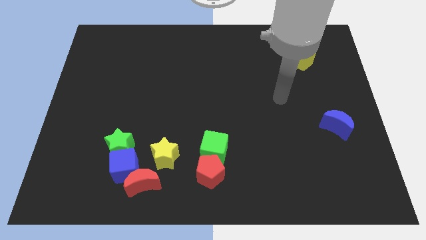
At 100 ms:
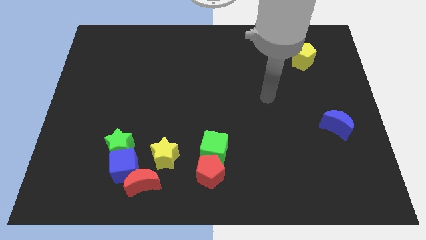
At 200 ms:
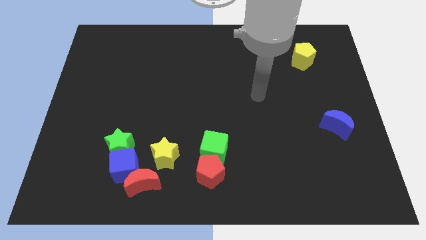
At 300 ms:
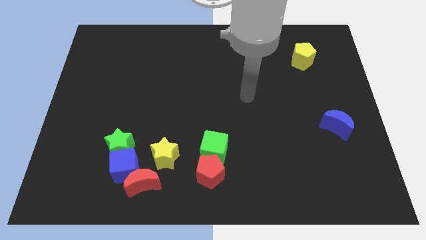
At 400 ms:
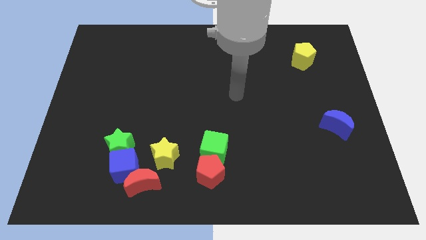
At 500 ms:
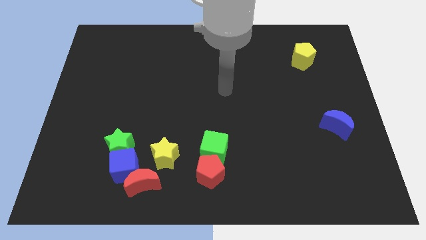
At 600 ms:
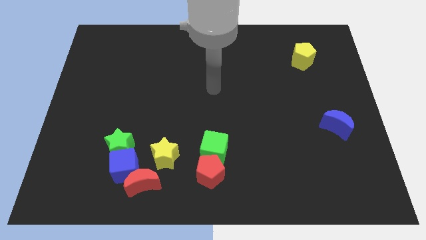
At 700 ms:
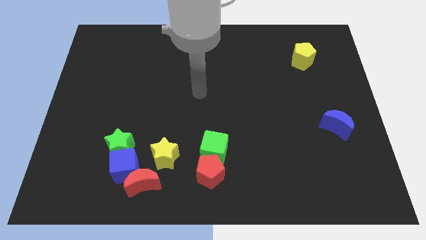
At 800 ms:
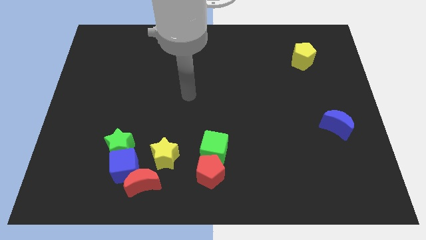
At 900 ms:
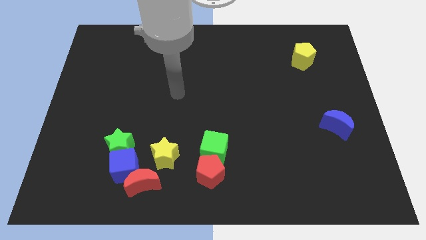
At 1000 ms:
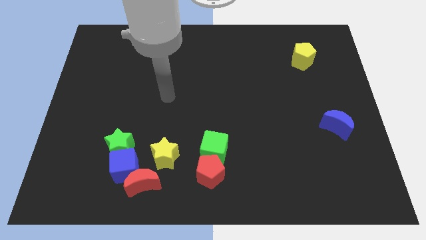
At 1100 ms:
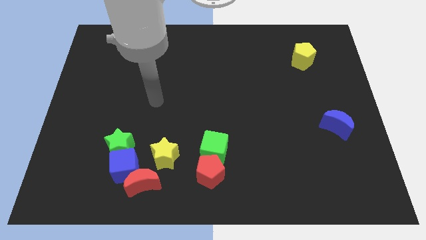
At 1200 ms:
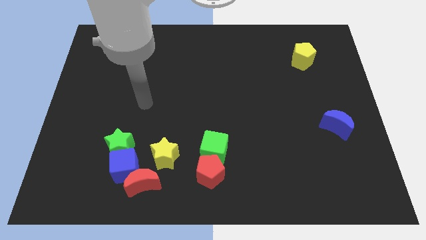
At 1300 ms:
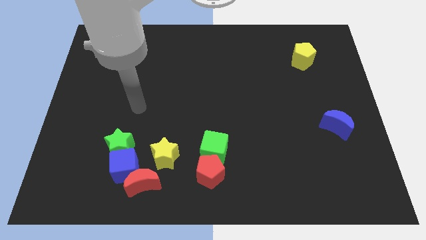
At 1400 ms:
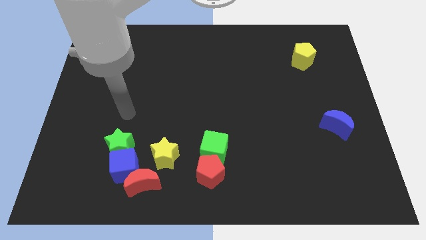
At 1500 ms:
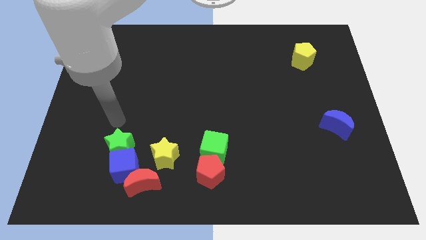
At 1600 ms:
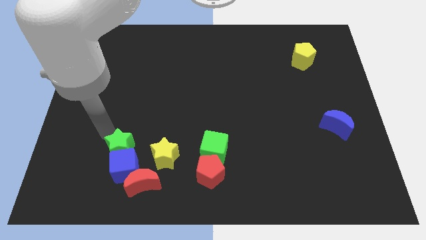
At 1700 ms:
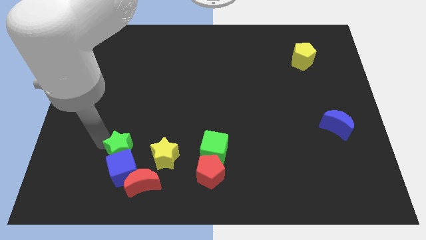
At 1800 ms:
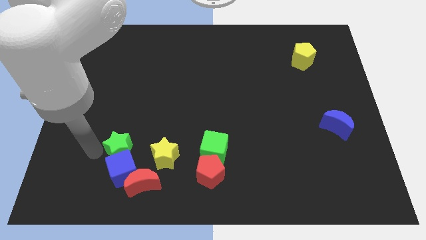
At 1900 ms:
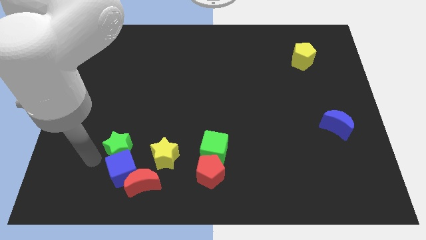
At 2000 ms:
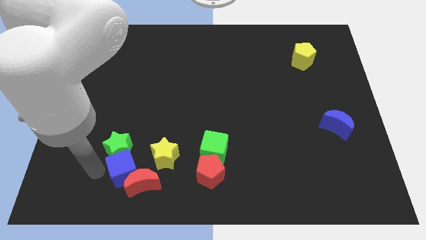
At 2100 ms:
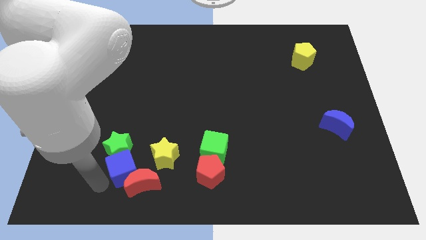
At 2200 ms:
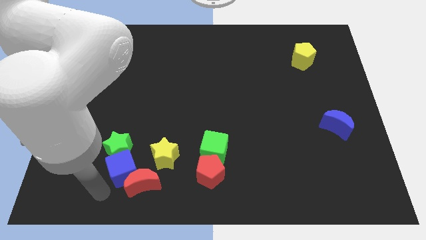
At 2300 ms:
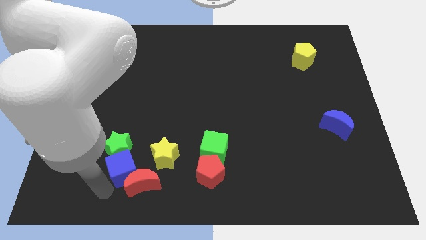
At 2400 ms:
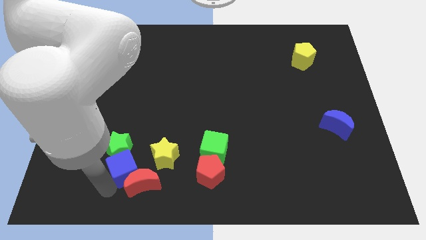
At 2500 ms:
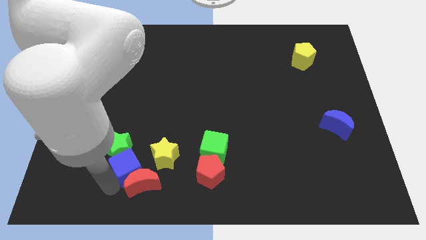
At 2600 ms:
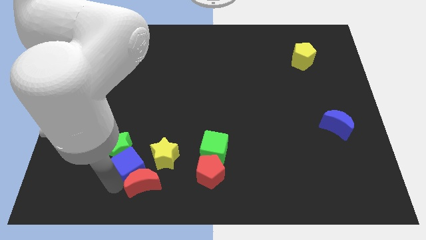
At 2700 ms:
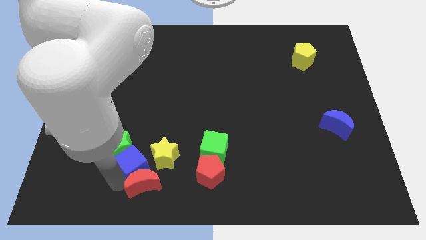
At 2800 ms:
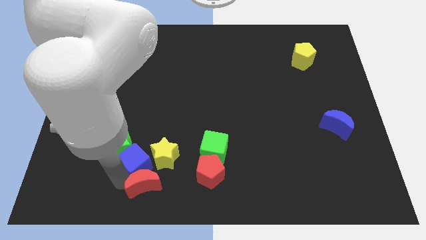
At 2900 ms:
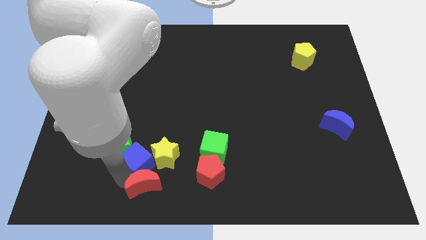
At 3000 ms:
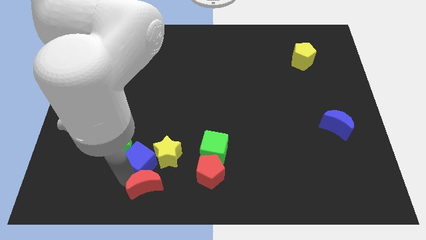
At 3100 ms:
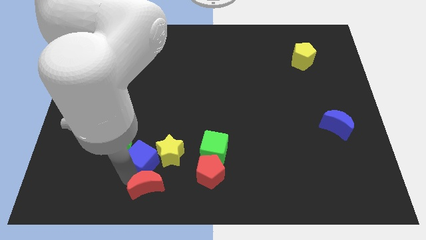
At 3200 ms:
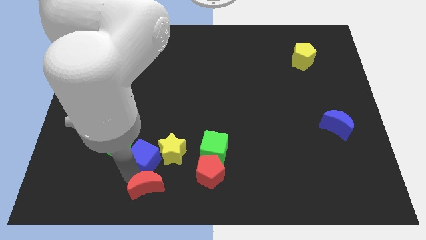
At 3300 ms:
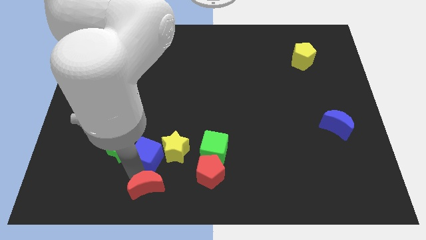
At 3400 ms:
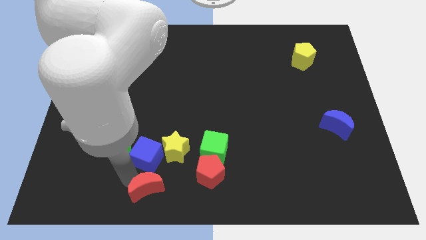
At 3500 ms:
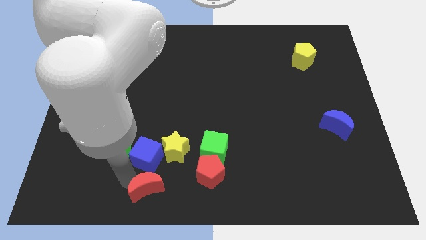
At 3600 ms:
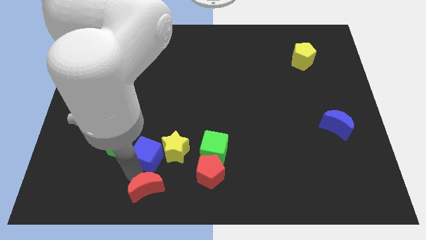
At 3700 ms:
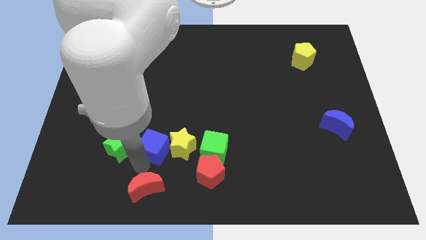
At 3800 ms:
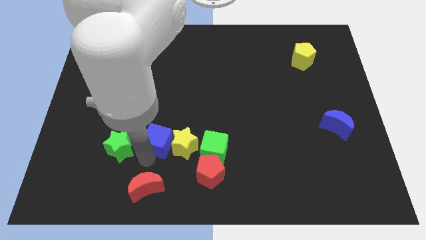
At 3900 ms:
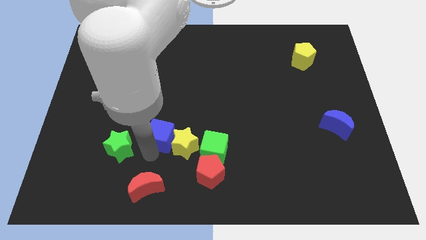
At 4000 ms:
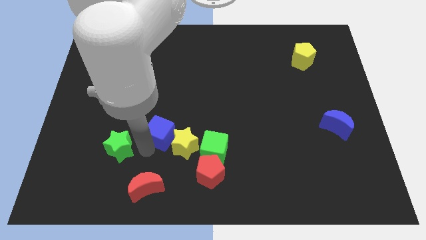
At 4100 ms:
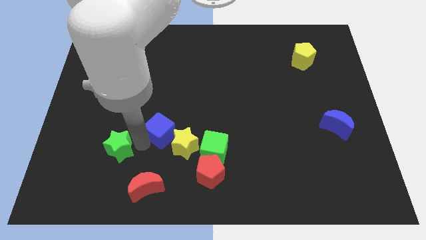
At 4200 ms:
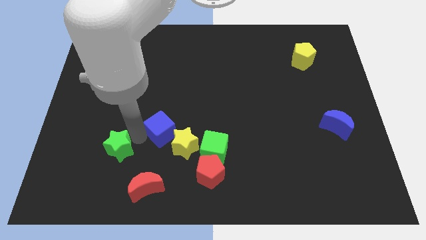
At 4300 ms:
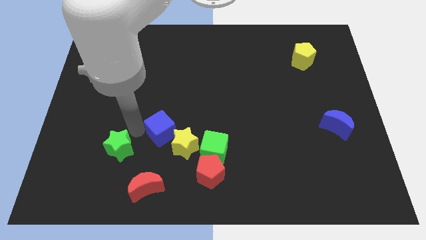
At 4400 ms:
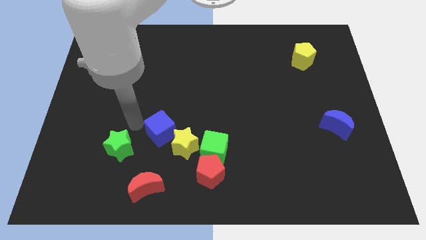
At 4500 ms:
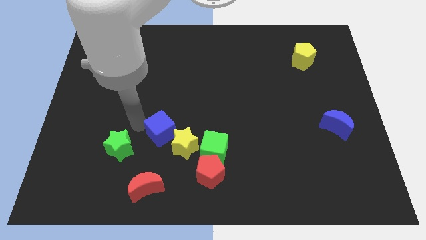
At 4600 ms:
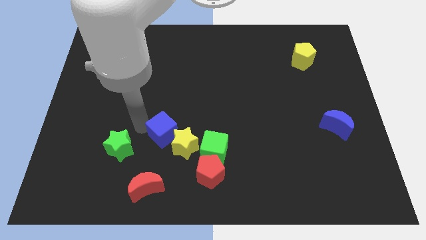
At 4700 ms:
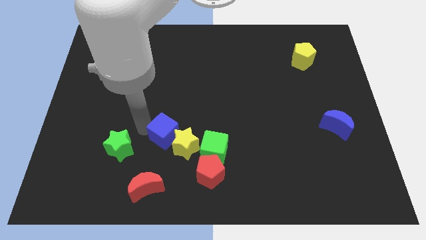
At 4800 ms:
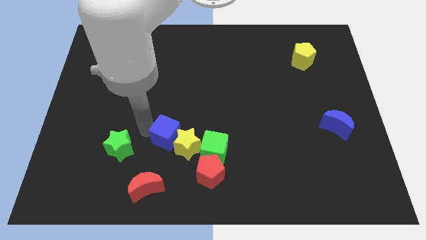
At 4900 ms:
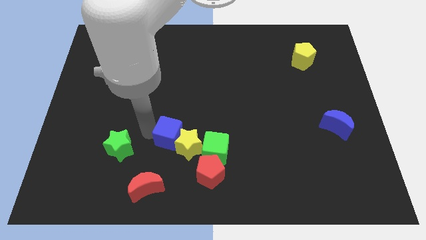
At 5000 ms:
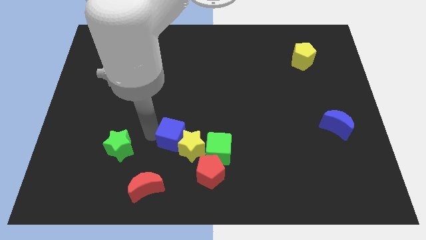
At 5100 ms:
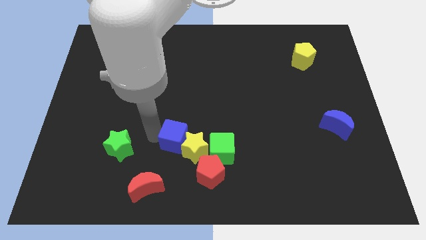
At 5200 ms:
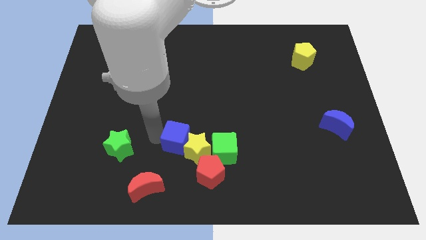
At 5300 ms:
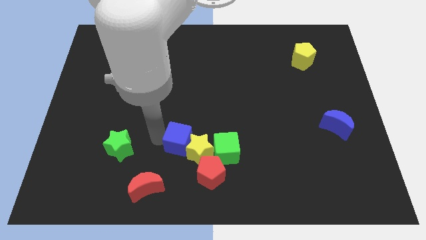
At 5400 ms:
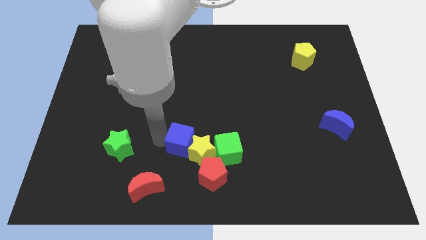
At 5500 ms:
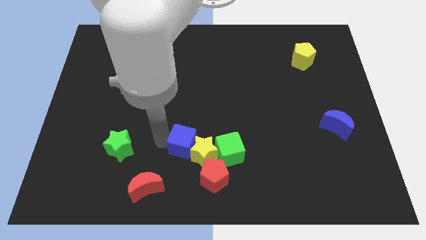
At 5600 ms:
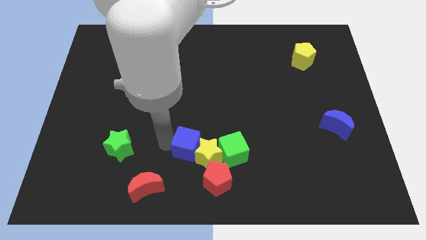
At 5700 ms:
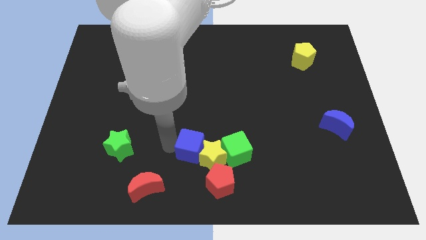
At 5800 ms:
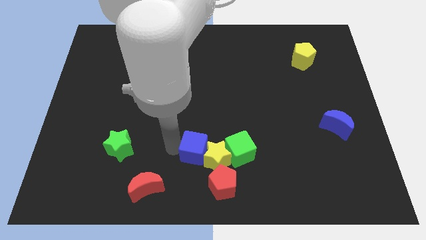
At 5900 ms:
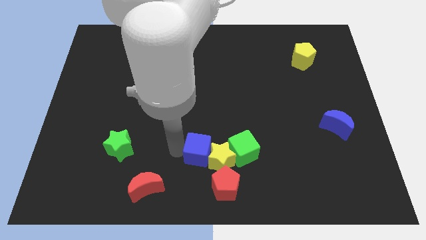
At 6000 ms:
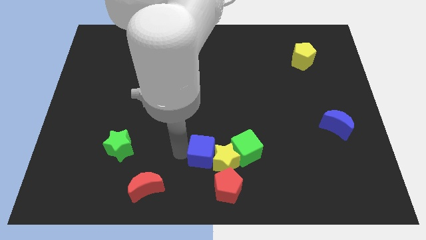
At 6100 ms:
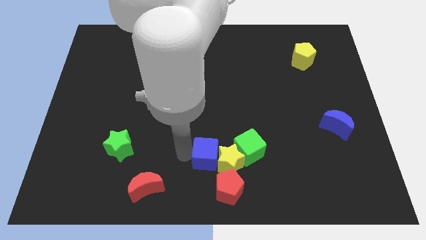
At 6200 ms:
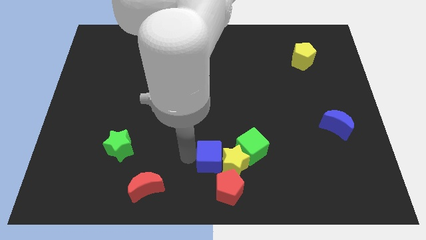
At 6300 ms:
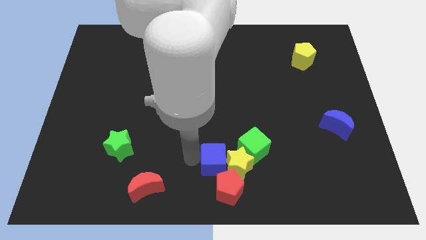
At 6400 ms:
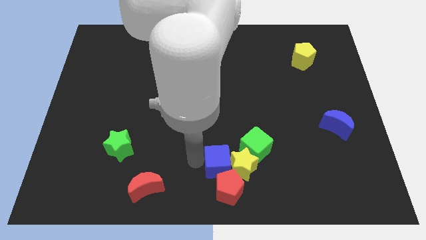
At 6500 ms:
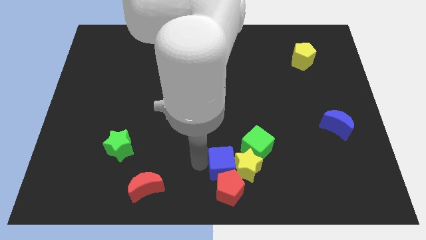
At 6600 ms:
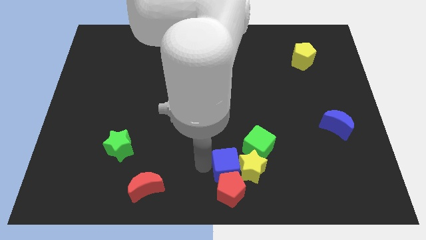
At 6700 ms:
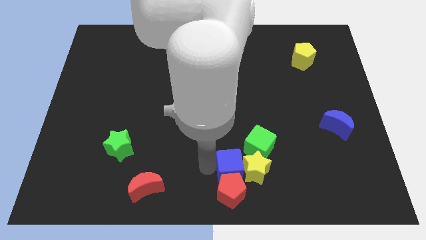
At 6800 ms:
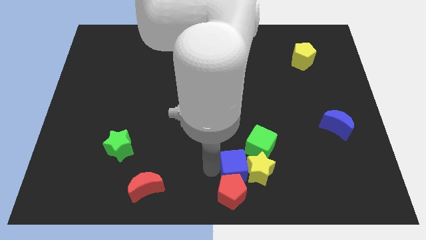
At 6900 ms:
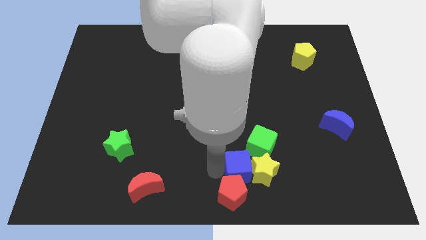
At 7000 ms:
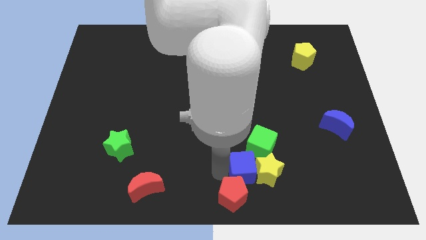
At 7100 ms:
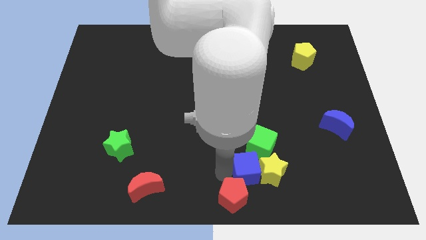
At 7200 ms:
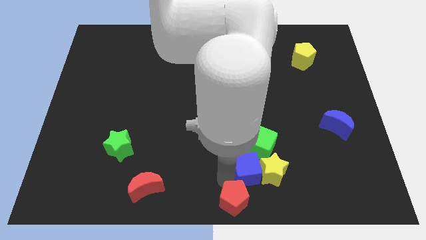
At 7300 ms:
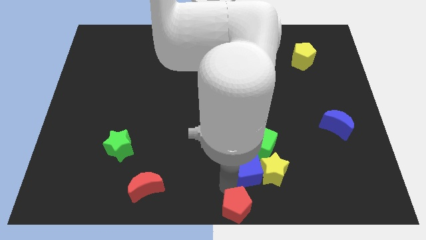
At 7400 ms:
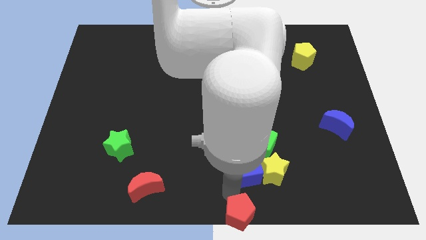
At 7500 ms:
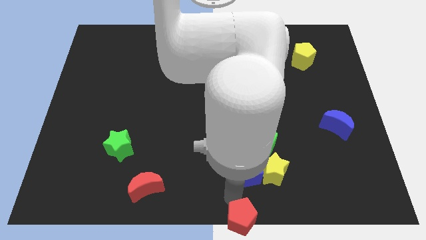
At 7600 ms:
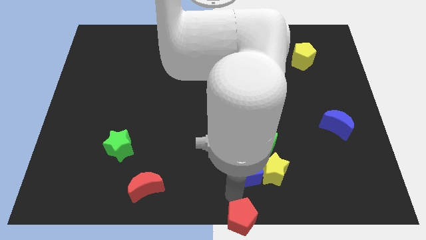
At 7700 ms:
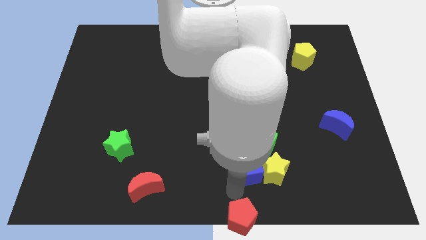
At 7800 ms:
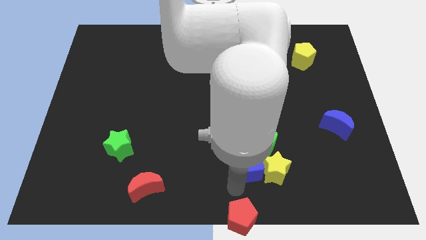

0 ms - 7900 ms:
slide the blue cube close to the green cube

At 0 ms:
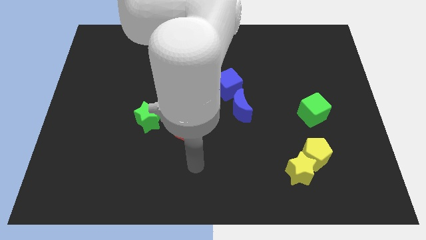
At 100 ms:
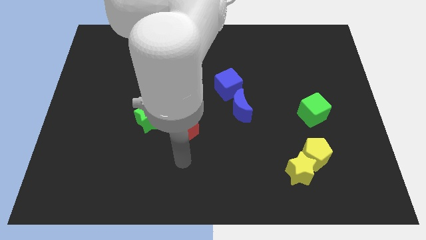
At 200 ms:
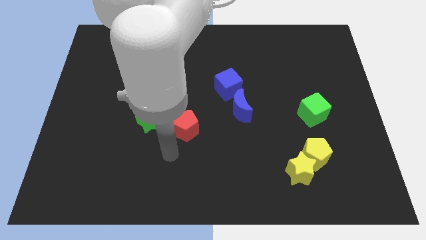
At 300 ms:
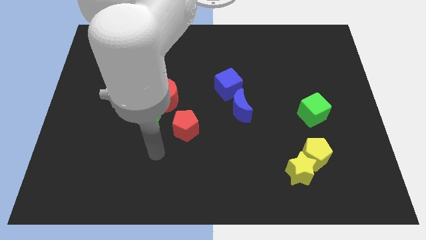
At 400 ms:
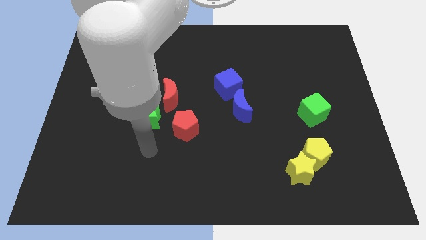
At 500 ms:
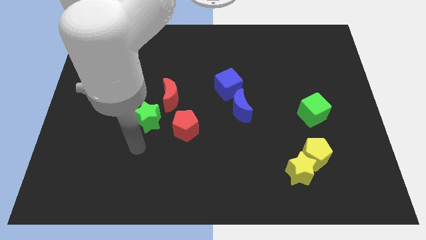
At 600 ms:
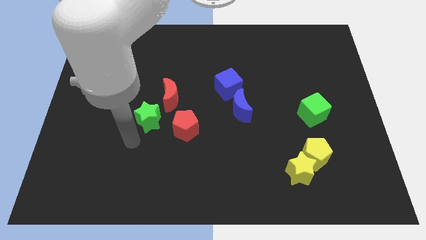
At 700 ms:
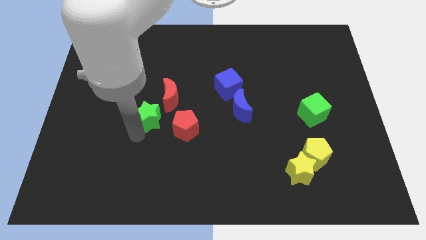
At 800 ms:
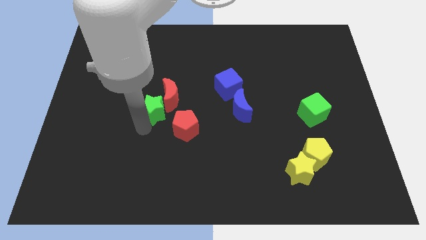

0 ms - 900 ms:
move the green star next to the red moon
